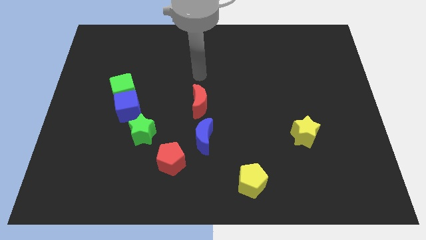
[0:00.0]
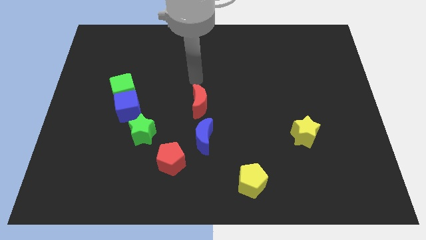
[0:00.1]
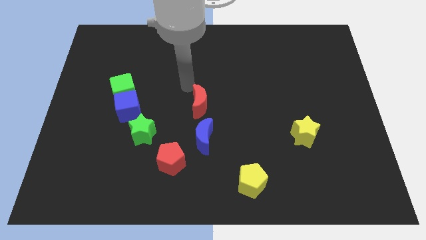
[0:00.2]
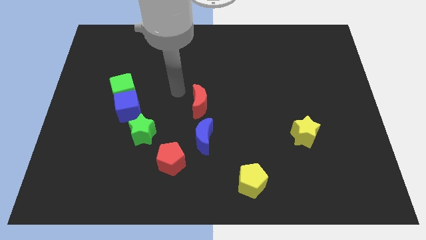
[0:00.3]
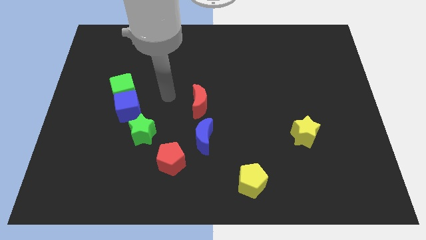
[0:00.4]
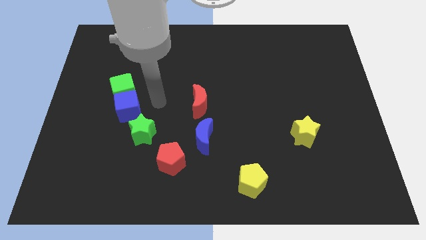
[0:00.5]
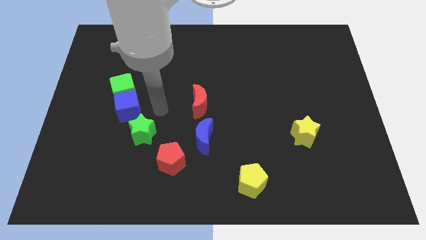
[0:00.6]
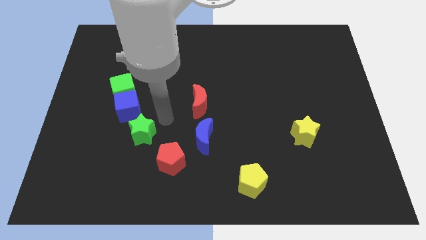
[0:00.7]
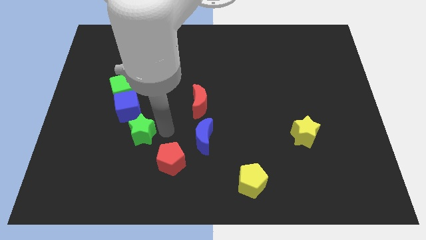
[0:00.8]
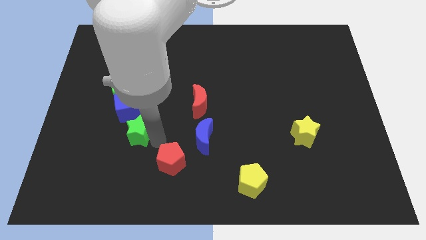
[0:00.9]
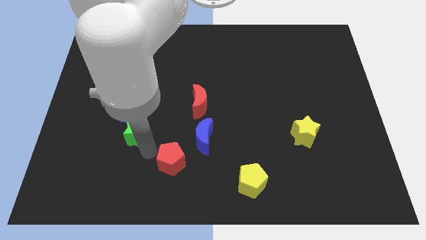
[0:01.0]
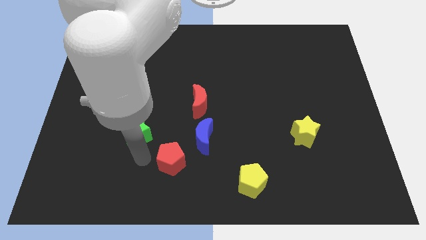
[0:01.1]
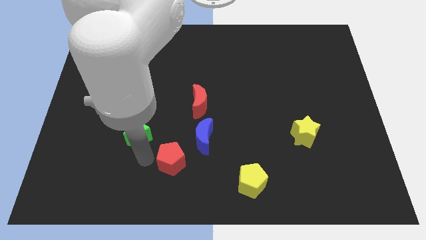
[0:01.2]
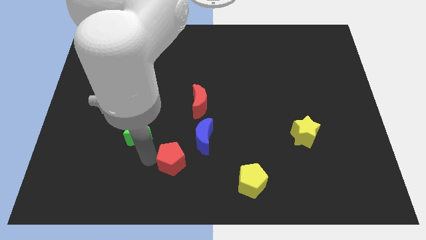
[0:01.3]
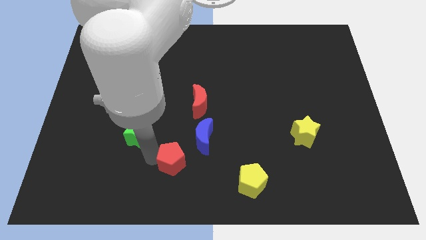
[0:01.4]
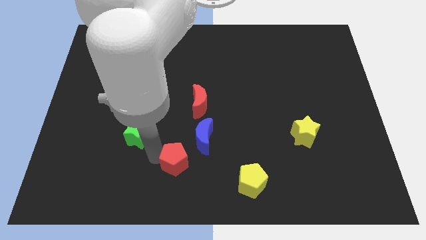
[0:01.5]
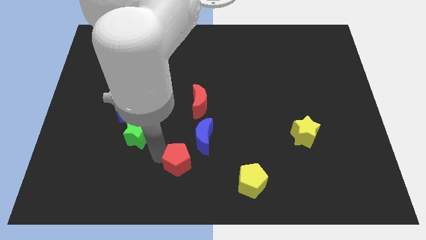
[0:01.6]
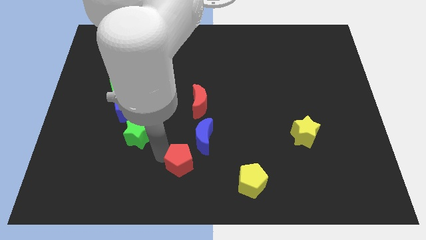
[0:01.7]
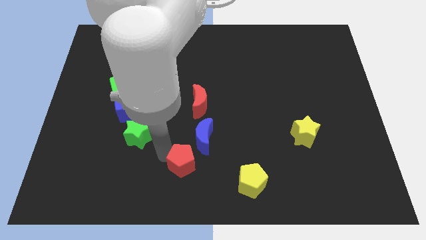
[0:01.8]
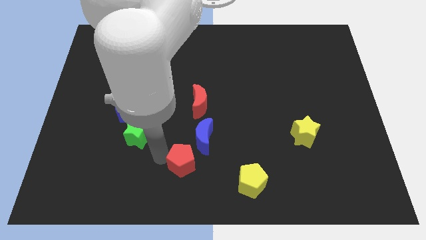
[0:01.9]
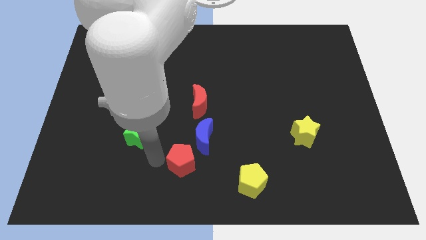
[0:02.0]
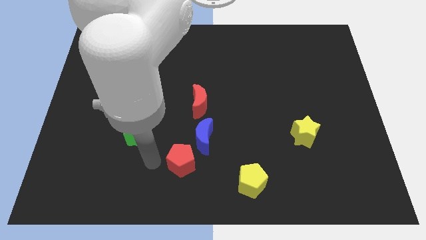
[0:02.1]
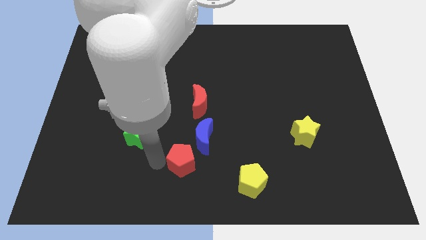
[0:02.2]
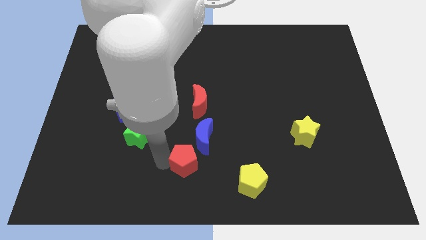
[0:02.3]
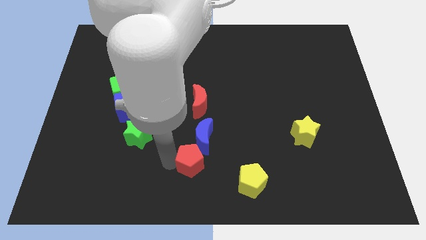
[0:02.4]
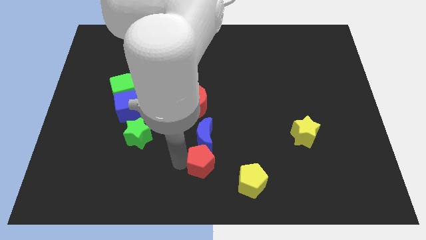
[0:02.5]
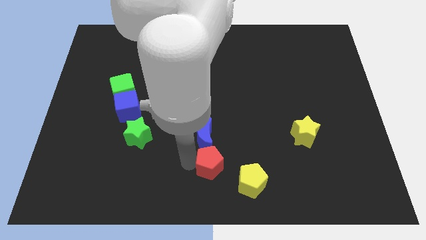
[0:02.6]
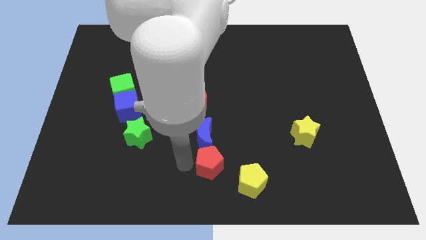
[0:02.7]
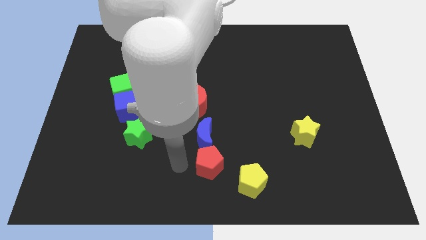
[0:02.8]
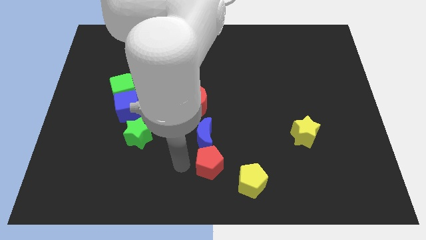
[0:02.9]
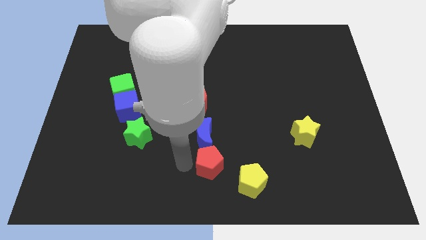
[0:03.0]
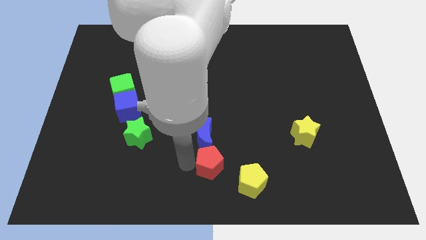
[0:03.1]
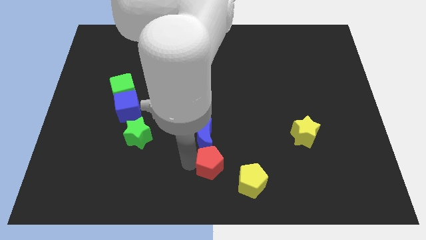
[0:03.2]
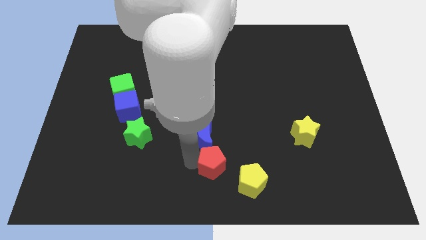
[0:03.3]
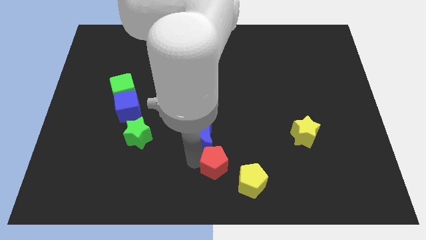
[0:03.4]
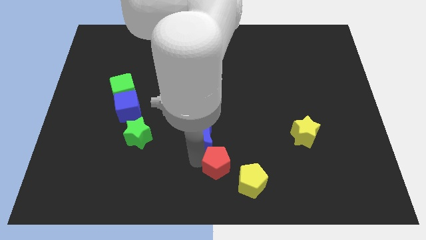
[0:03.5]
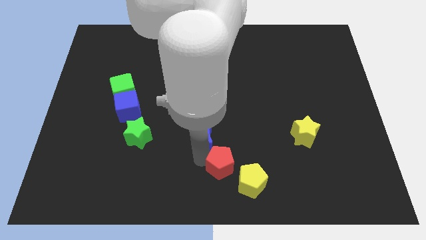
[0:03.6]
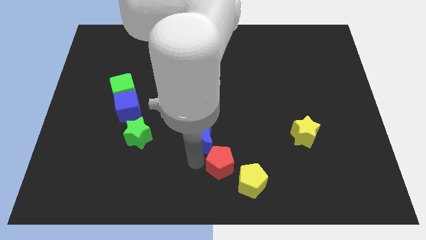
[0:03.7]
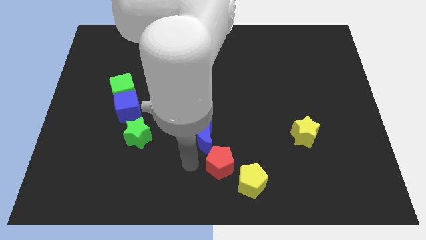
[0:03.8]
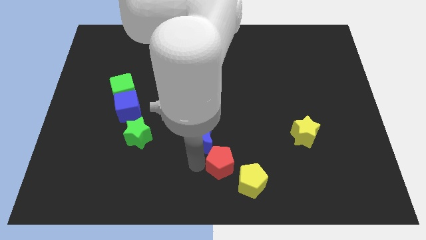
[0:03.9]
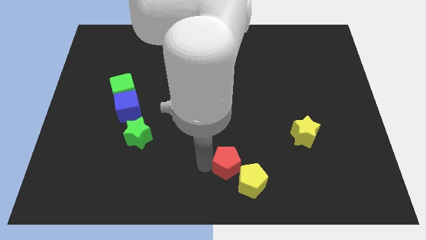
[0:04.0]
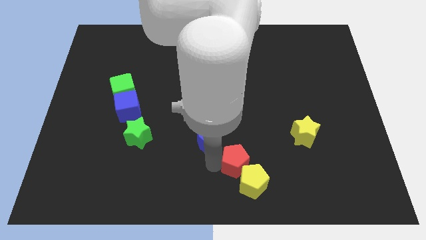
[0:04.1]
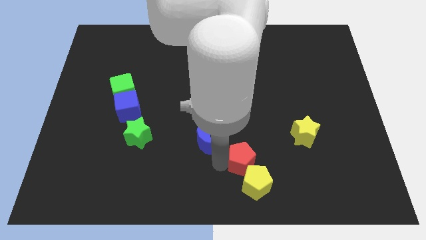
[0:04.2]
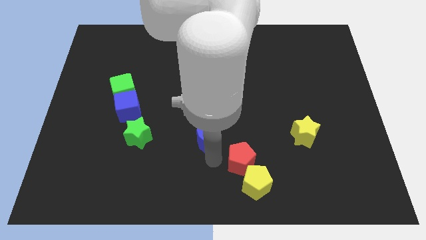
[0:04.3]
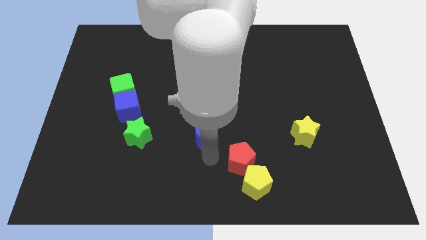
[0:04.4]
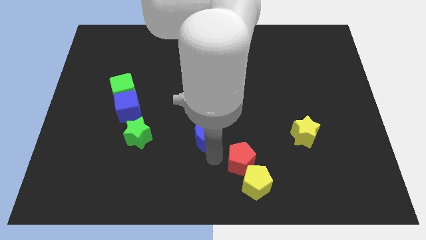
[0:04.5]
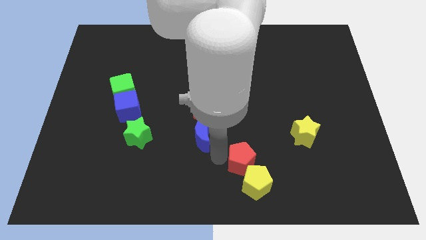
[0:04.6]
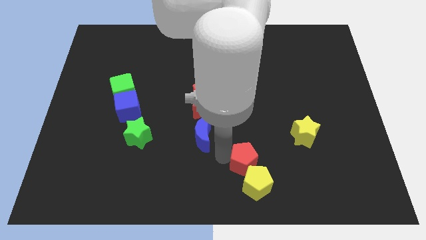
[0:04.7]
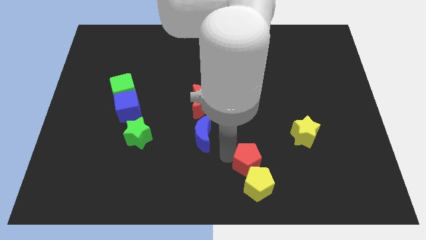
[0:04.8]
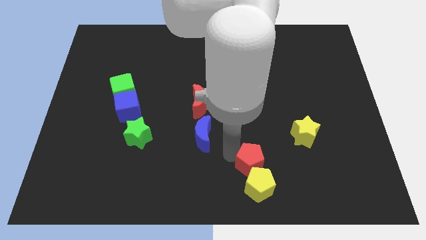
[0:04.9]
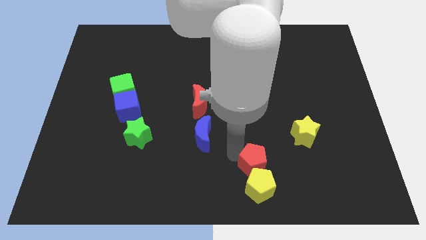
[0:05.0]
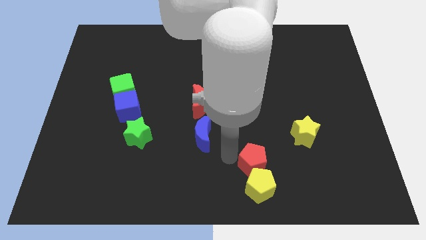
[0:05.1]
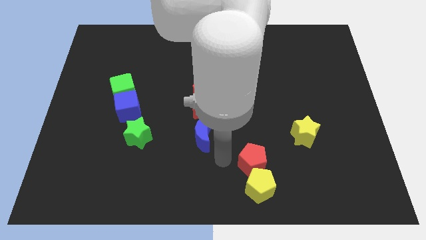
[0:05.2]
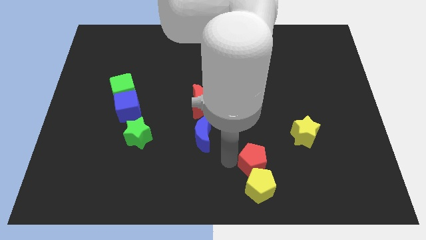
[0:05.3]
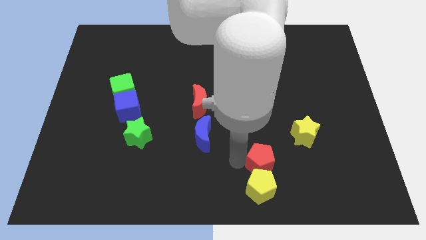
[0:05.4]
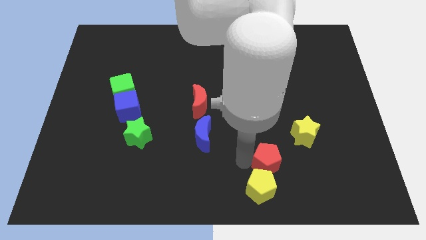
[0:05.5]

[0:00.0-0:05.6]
slide the red pentagon to the right

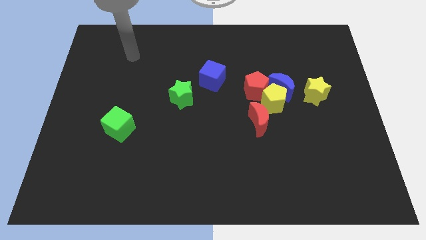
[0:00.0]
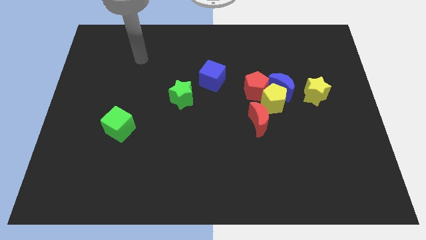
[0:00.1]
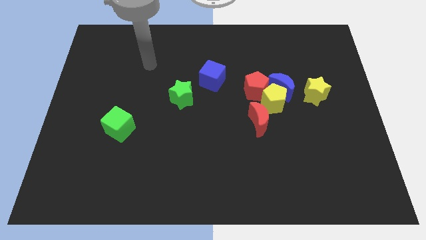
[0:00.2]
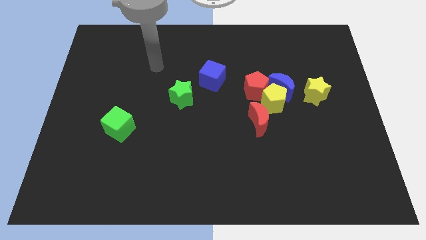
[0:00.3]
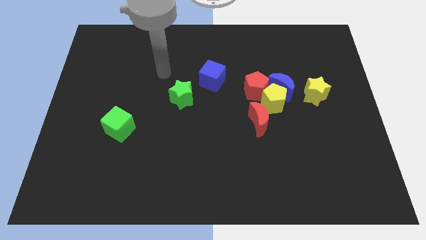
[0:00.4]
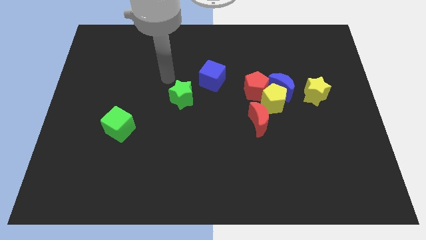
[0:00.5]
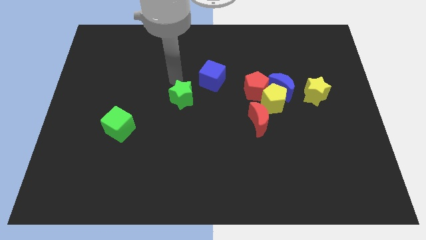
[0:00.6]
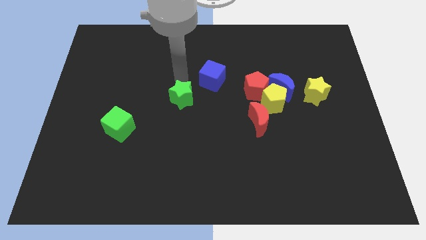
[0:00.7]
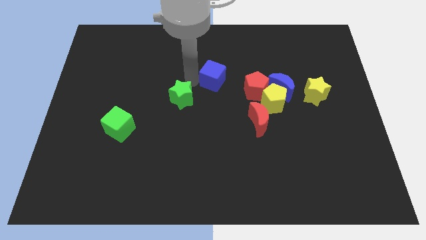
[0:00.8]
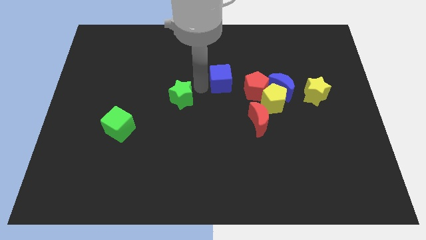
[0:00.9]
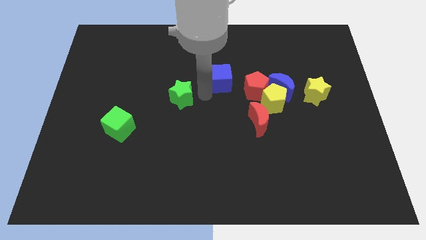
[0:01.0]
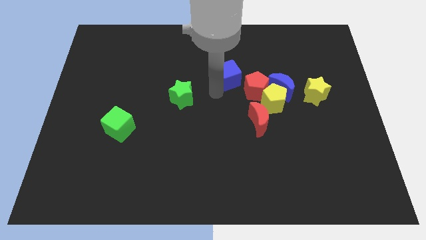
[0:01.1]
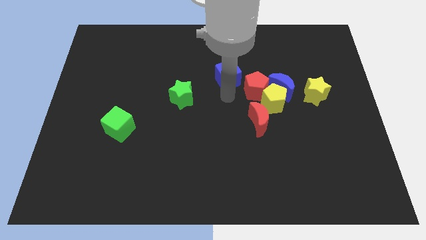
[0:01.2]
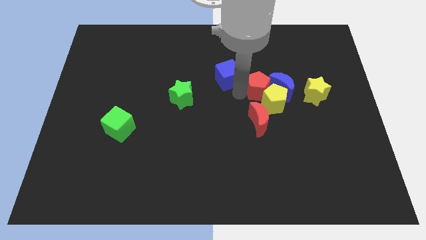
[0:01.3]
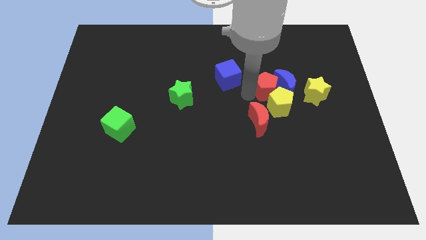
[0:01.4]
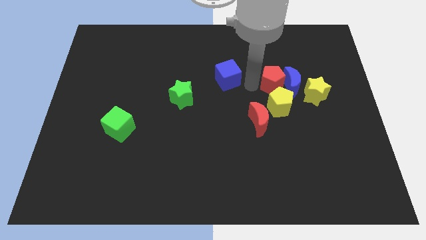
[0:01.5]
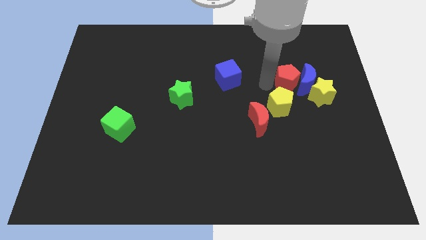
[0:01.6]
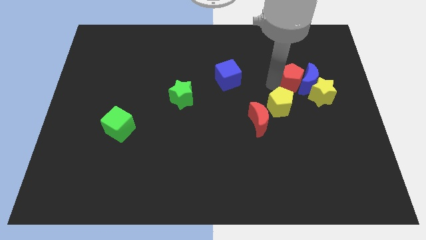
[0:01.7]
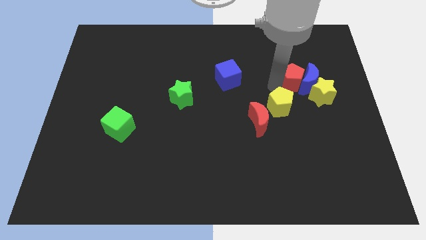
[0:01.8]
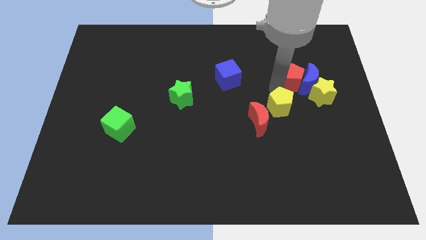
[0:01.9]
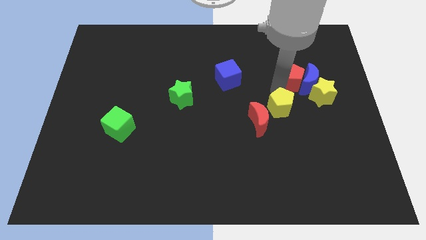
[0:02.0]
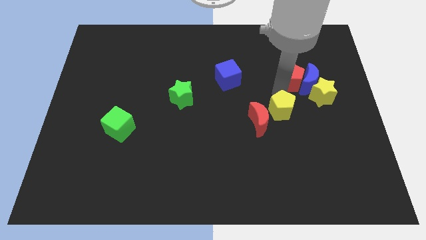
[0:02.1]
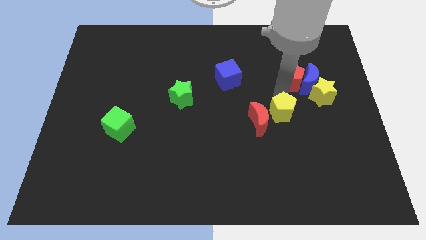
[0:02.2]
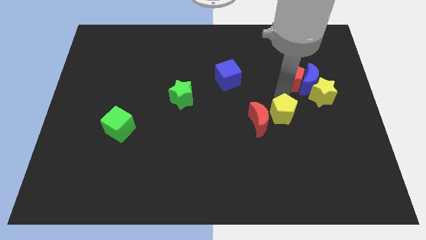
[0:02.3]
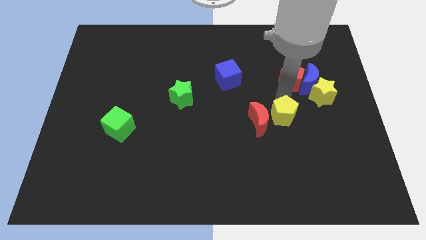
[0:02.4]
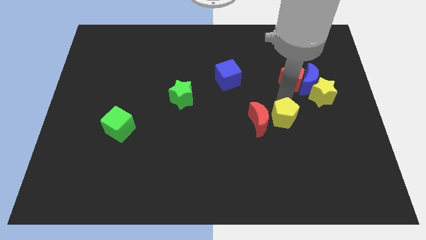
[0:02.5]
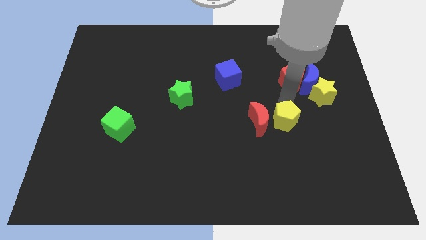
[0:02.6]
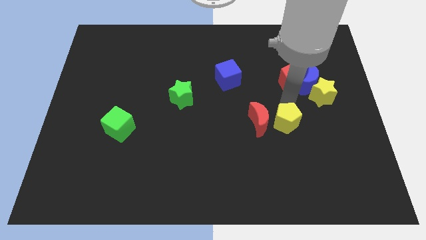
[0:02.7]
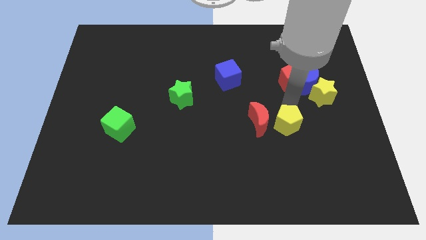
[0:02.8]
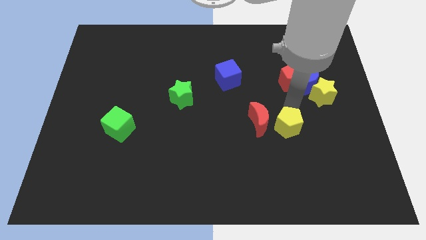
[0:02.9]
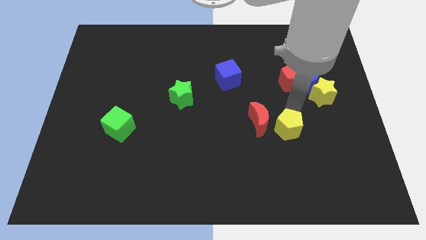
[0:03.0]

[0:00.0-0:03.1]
move the yellow pentagon downwards slightly
